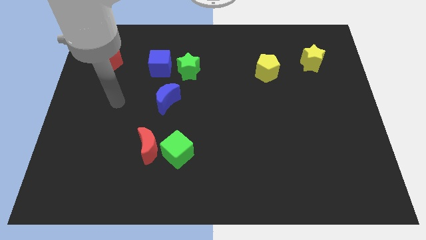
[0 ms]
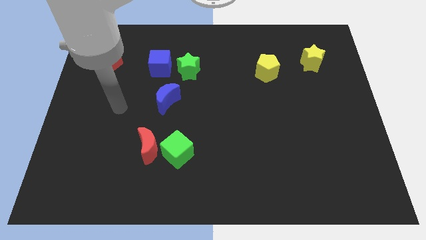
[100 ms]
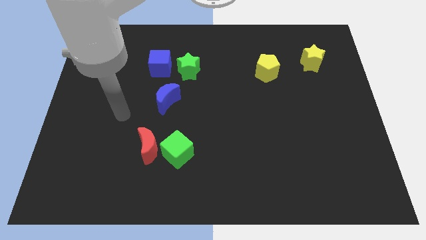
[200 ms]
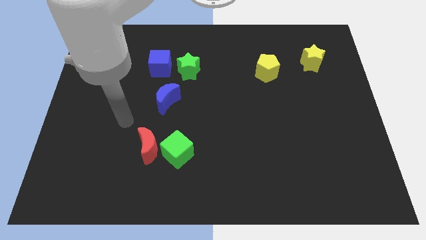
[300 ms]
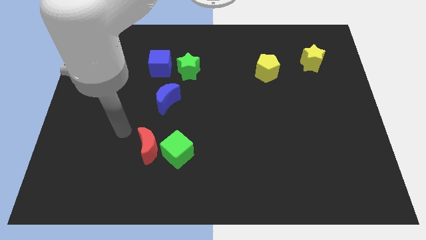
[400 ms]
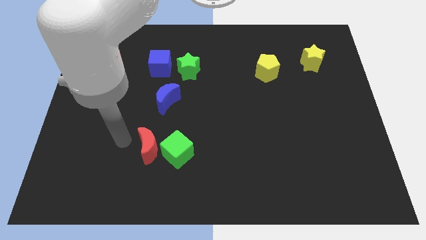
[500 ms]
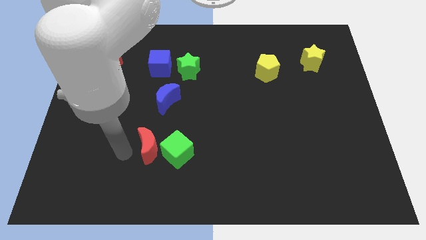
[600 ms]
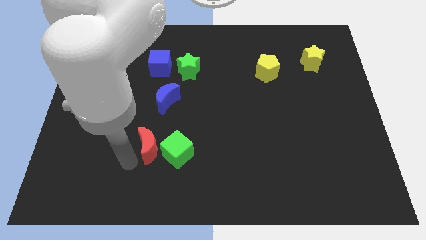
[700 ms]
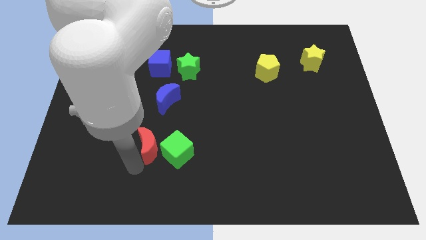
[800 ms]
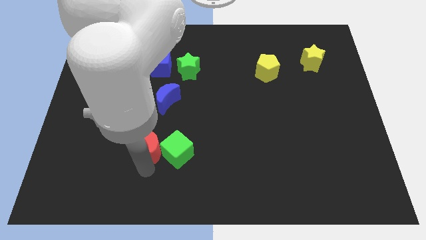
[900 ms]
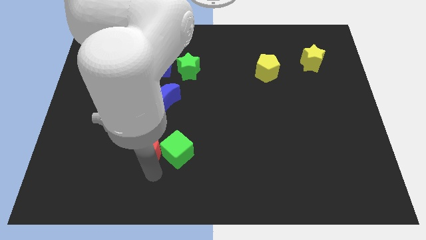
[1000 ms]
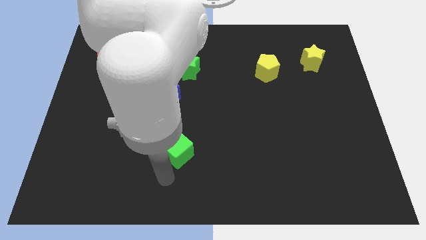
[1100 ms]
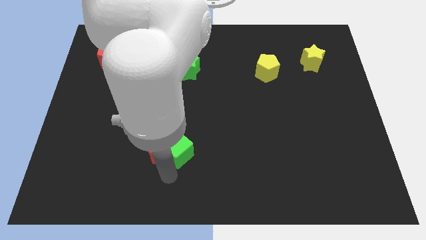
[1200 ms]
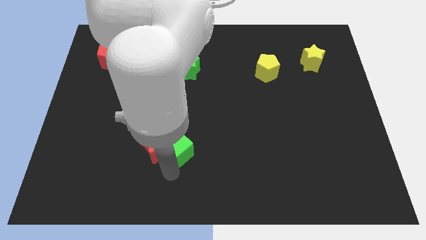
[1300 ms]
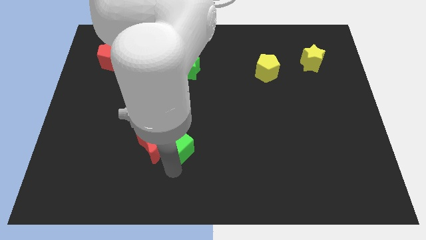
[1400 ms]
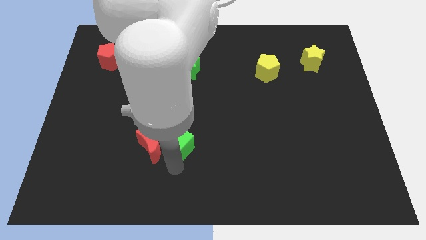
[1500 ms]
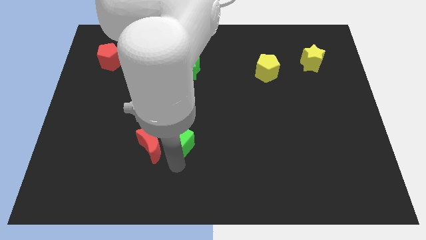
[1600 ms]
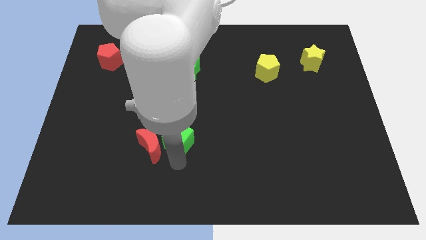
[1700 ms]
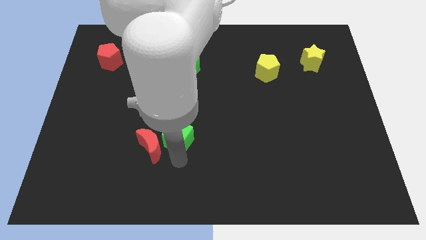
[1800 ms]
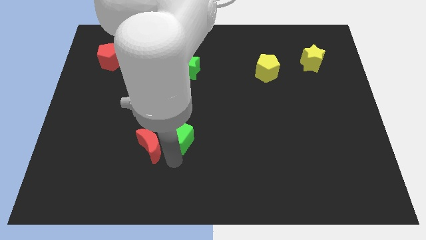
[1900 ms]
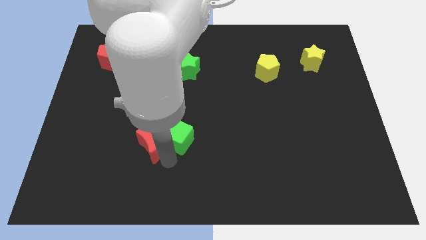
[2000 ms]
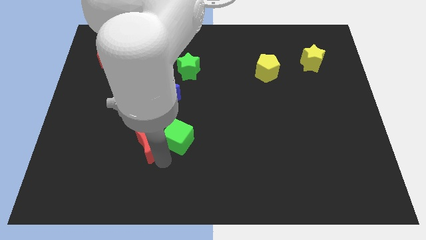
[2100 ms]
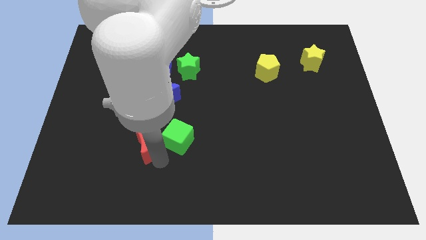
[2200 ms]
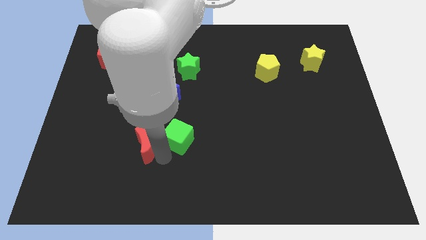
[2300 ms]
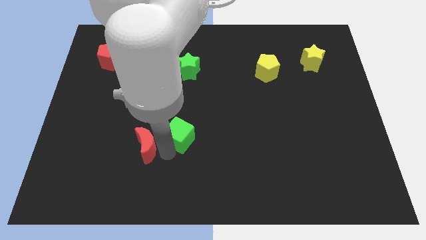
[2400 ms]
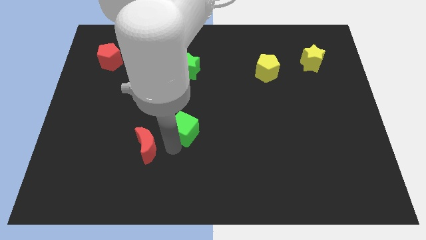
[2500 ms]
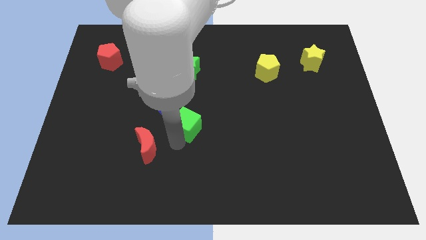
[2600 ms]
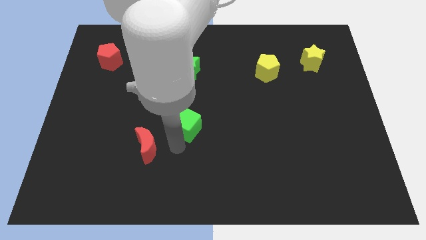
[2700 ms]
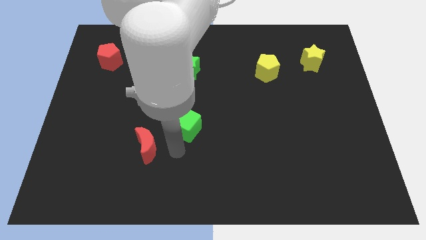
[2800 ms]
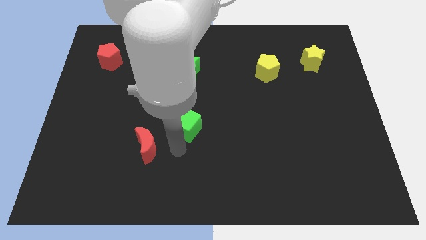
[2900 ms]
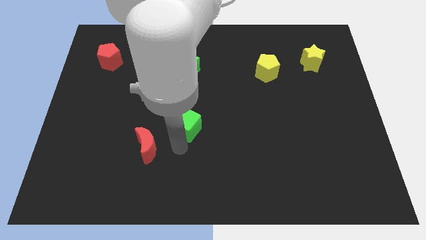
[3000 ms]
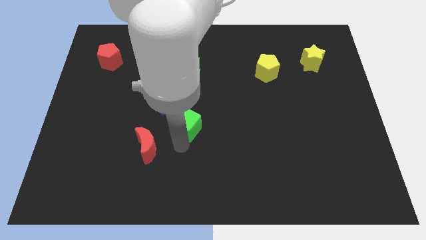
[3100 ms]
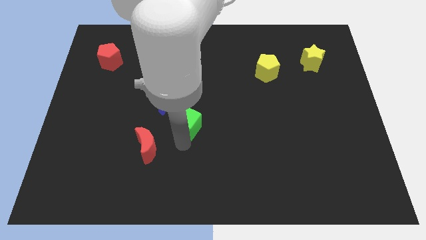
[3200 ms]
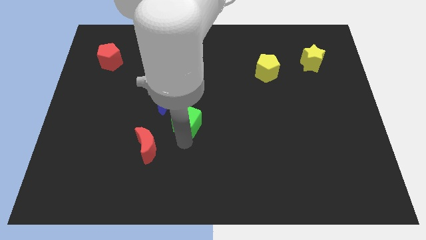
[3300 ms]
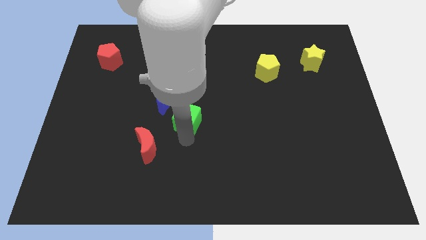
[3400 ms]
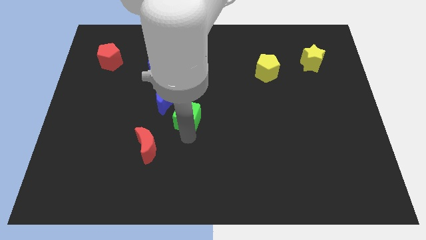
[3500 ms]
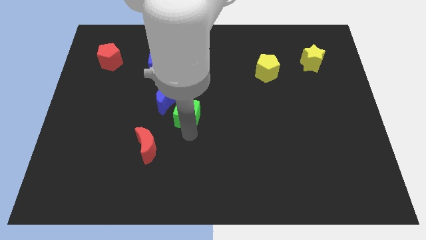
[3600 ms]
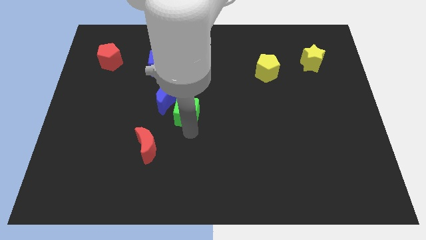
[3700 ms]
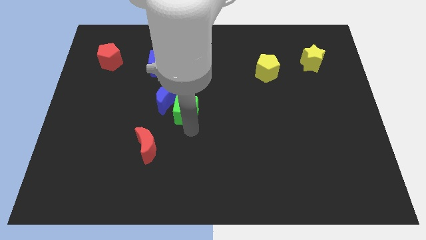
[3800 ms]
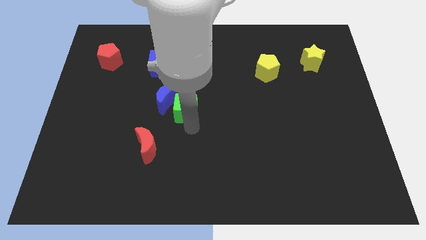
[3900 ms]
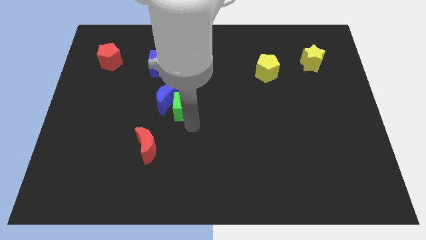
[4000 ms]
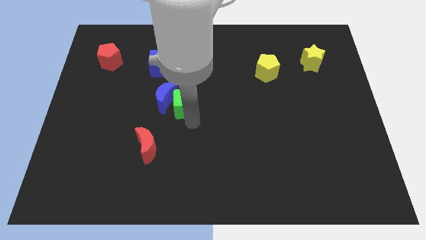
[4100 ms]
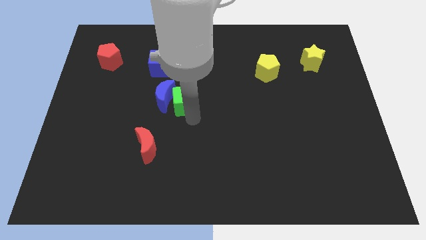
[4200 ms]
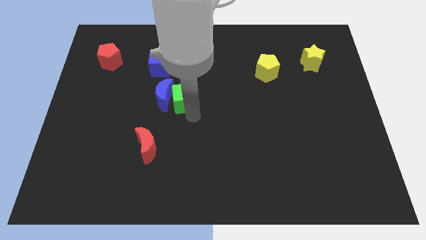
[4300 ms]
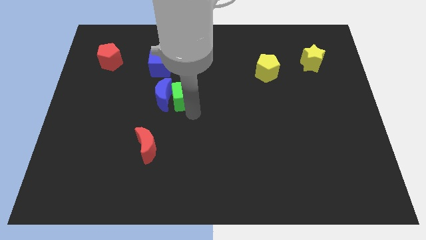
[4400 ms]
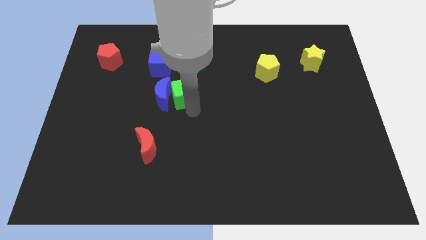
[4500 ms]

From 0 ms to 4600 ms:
slide the green cube diagonally down and to the right of the blue cube

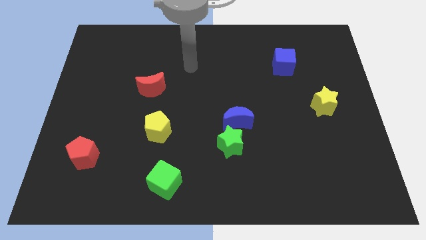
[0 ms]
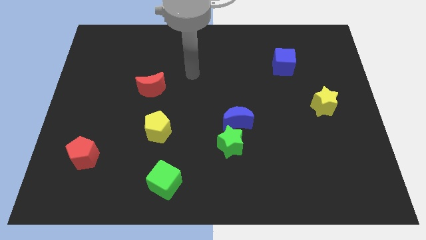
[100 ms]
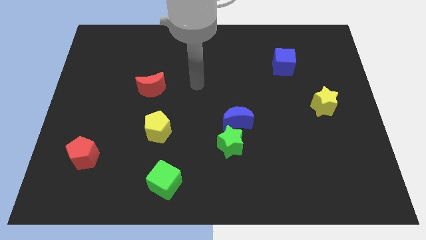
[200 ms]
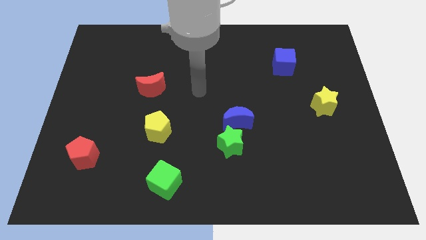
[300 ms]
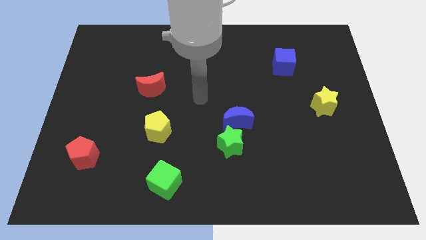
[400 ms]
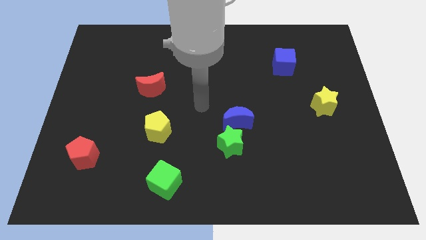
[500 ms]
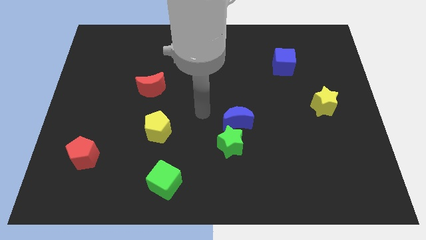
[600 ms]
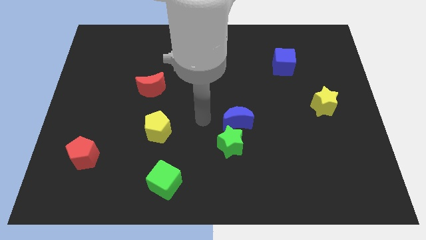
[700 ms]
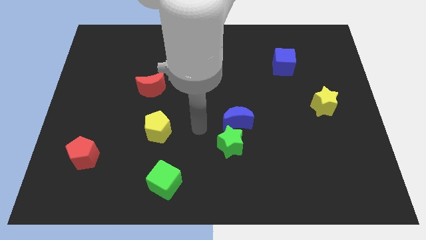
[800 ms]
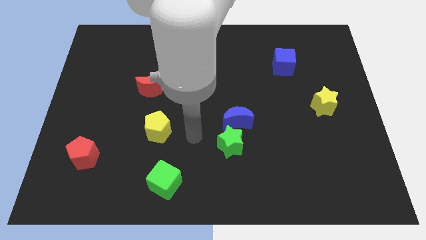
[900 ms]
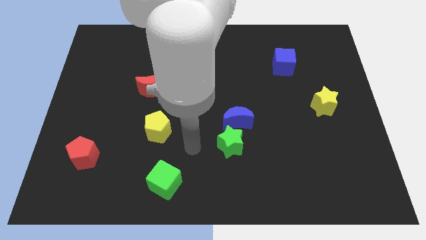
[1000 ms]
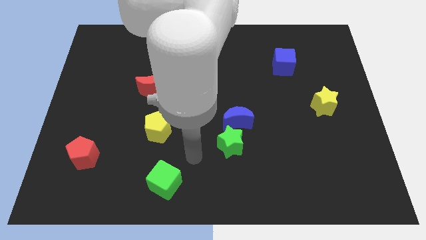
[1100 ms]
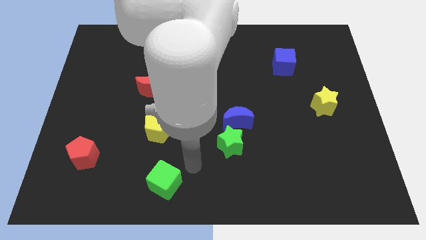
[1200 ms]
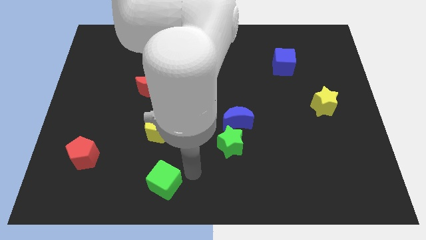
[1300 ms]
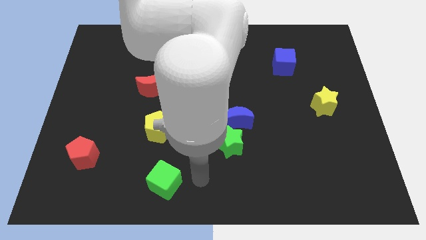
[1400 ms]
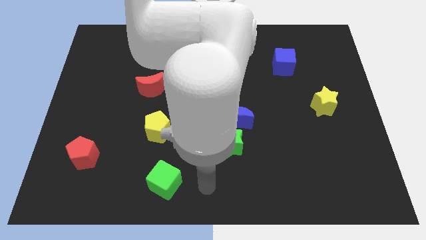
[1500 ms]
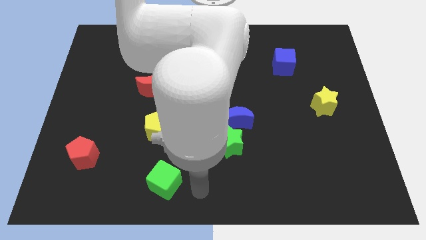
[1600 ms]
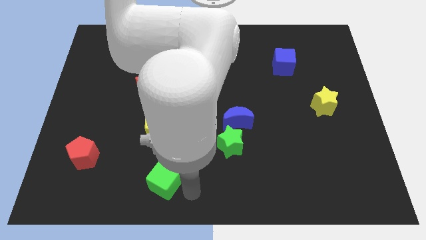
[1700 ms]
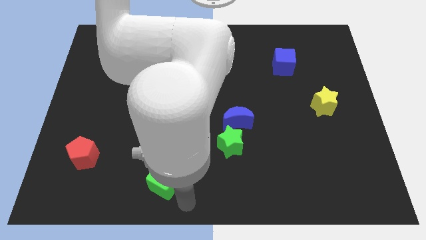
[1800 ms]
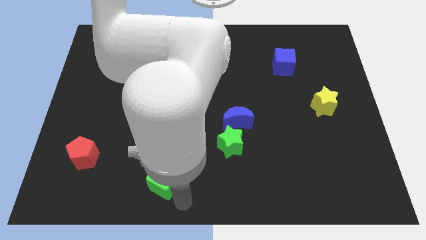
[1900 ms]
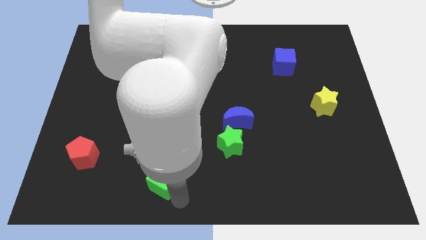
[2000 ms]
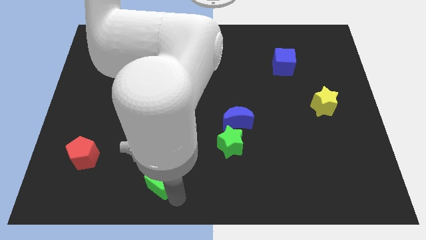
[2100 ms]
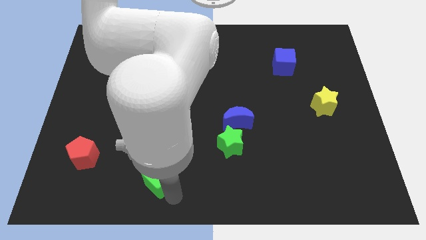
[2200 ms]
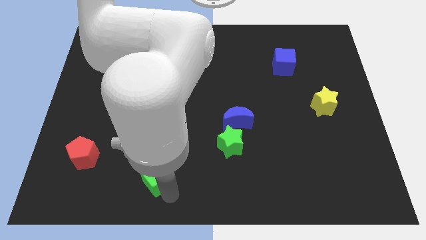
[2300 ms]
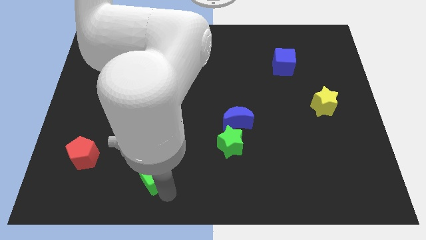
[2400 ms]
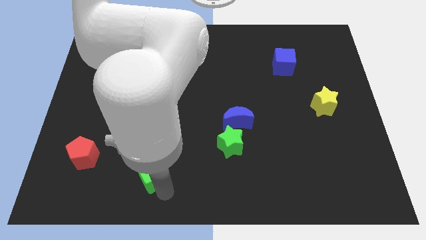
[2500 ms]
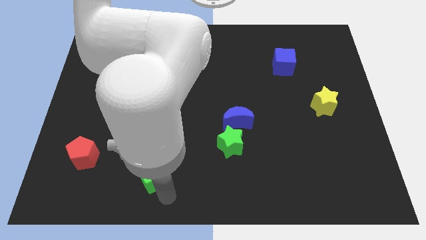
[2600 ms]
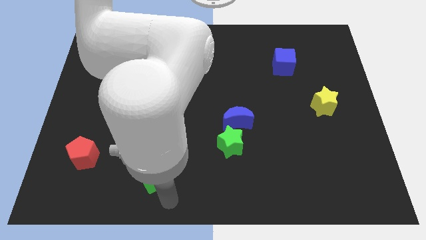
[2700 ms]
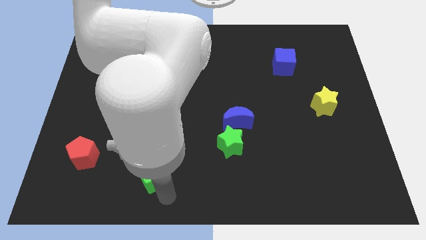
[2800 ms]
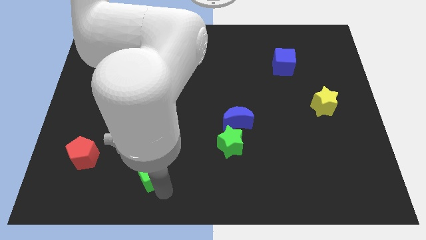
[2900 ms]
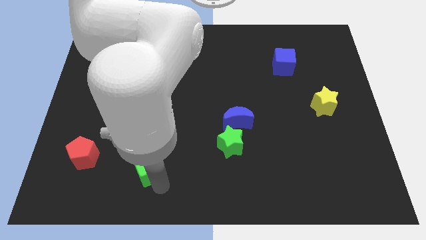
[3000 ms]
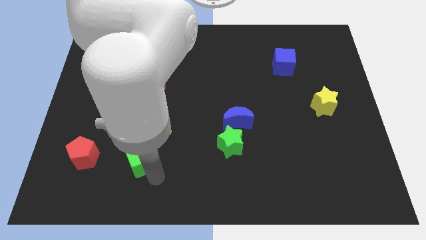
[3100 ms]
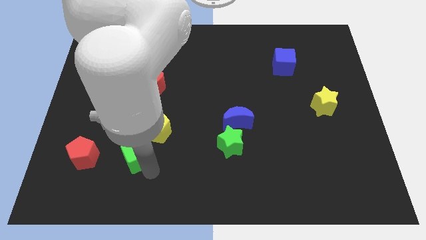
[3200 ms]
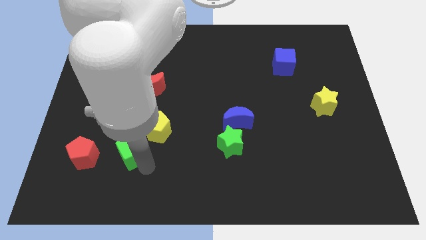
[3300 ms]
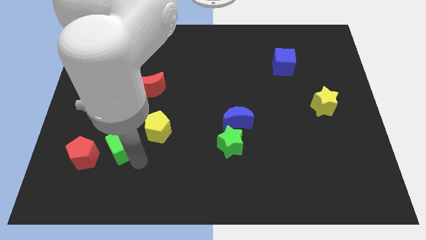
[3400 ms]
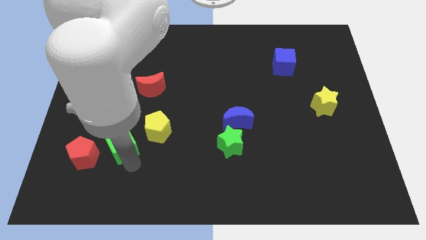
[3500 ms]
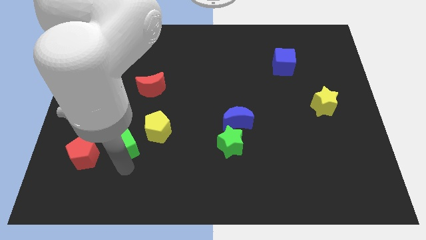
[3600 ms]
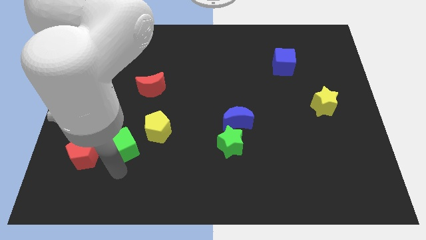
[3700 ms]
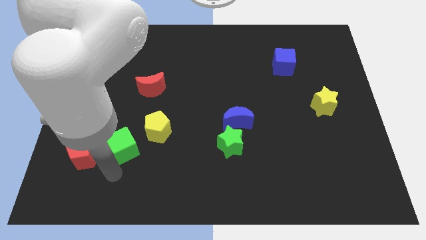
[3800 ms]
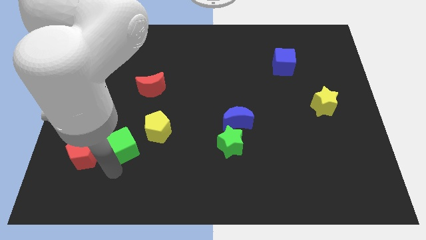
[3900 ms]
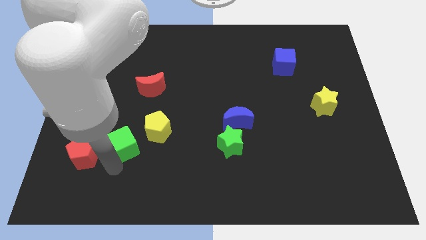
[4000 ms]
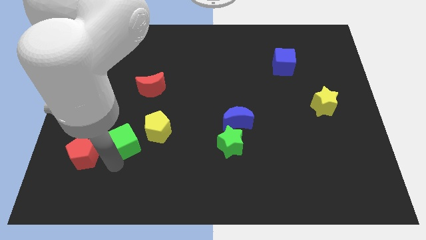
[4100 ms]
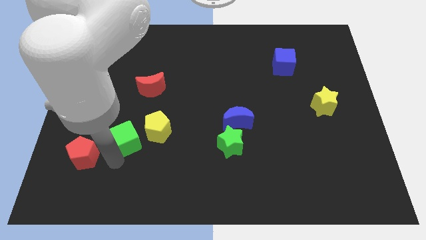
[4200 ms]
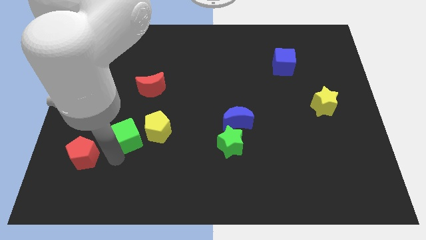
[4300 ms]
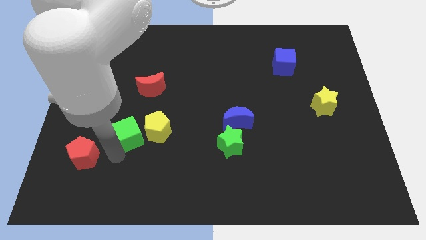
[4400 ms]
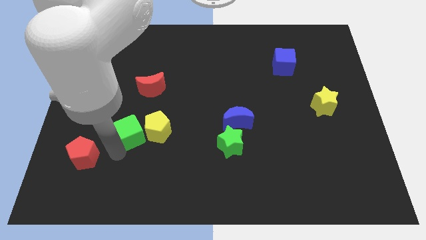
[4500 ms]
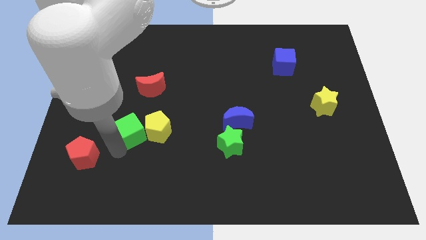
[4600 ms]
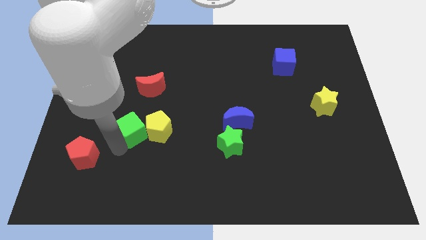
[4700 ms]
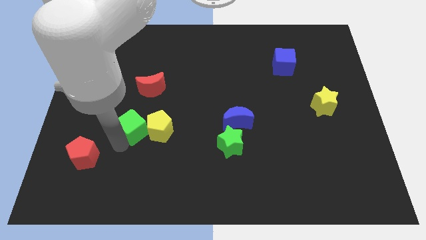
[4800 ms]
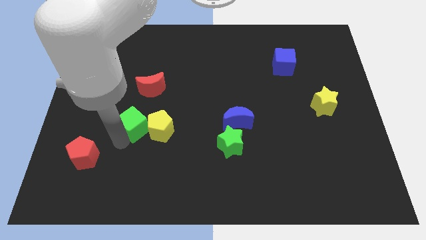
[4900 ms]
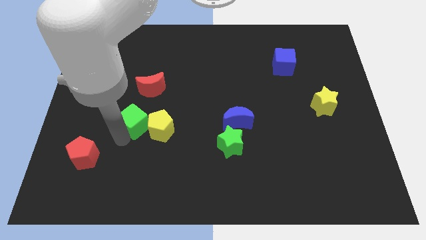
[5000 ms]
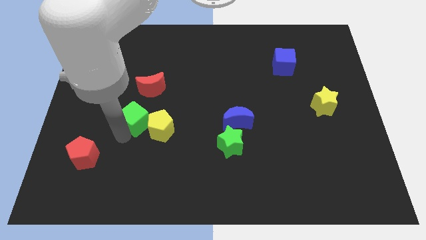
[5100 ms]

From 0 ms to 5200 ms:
slide the green cube diagonally down and to the left of the red moon
